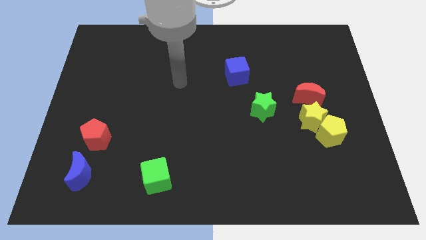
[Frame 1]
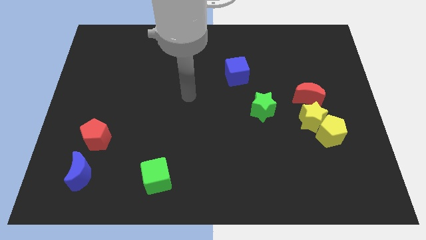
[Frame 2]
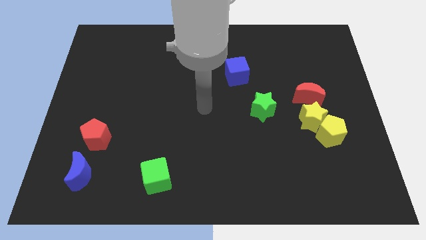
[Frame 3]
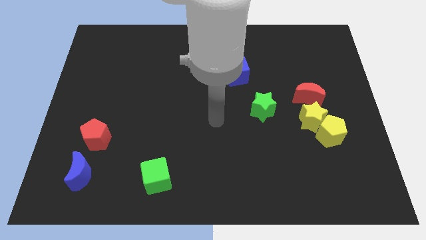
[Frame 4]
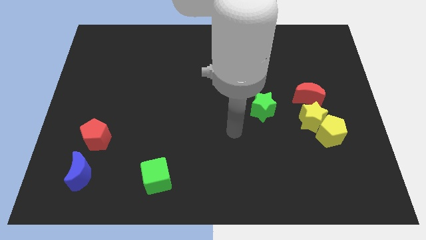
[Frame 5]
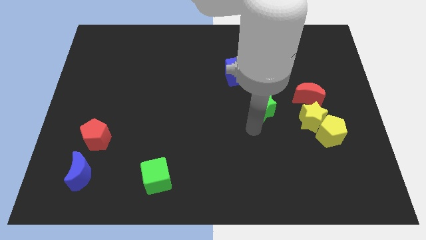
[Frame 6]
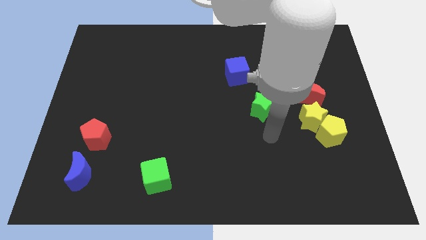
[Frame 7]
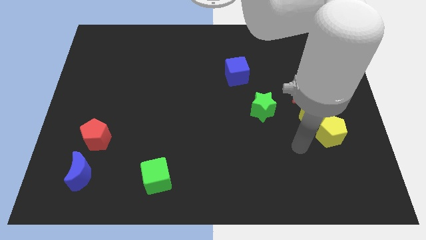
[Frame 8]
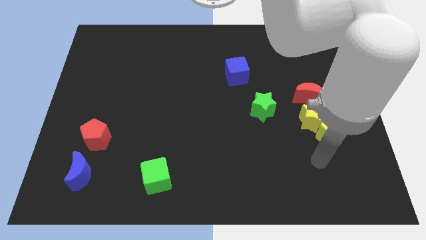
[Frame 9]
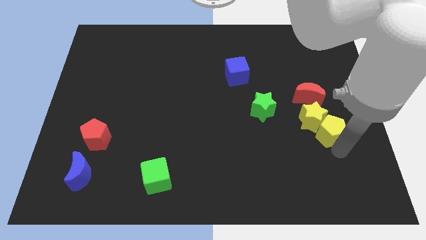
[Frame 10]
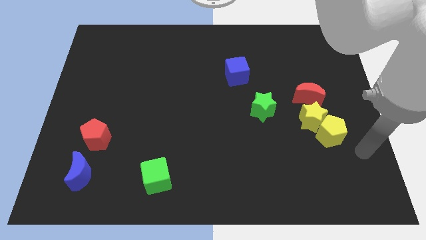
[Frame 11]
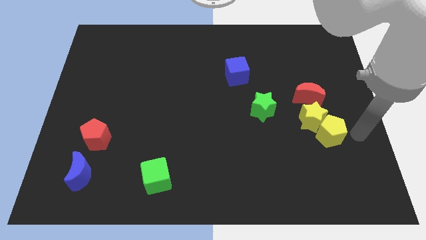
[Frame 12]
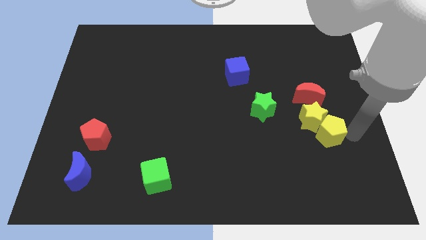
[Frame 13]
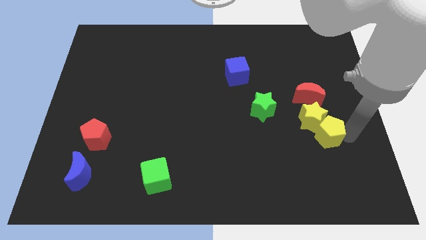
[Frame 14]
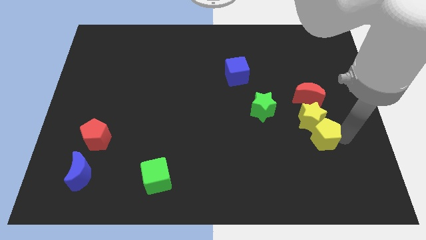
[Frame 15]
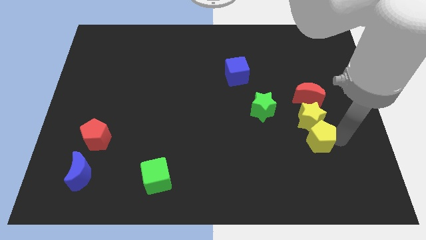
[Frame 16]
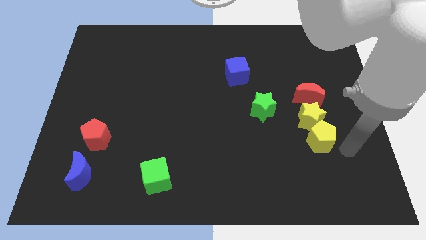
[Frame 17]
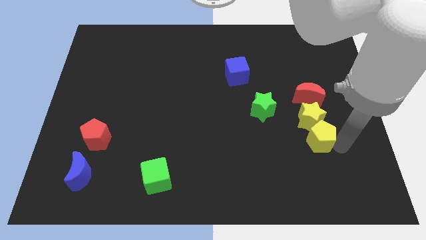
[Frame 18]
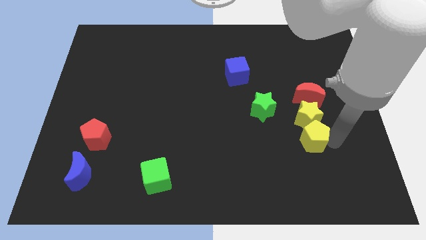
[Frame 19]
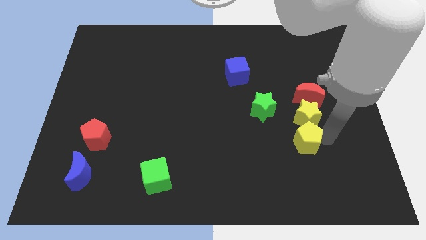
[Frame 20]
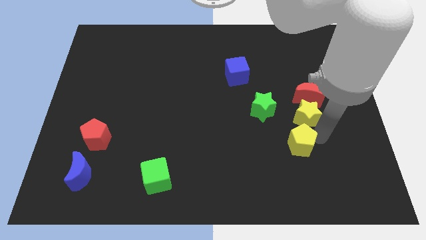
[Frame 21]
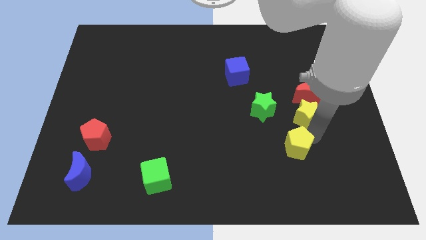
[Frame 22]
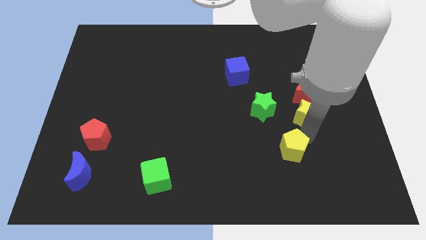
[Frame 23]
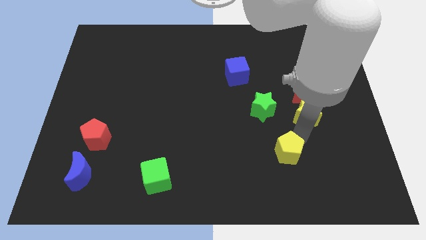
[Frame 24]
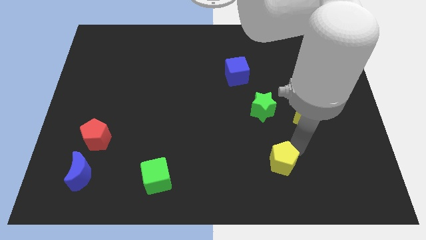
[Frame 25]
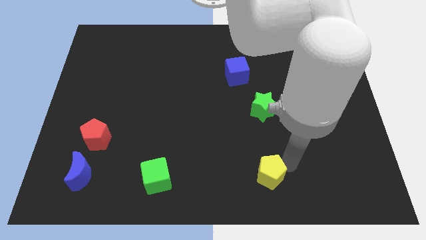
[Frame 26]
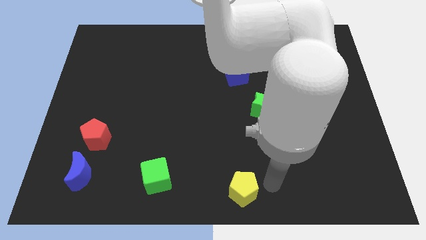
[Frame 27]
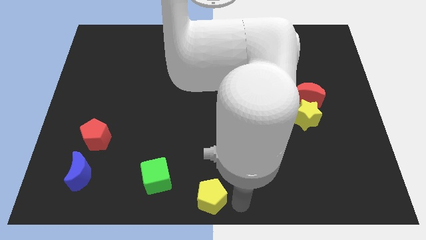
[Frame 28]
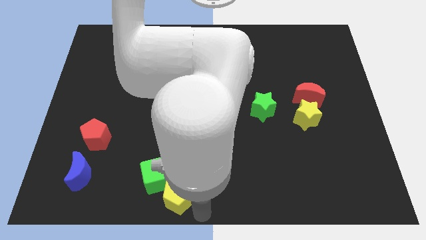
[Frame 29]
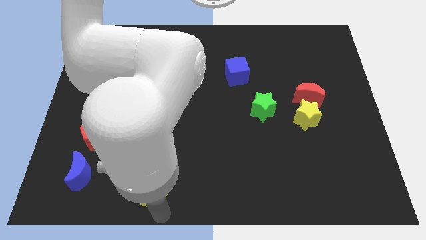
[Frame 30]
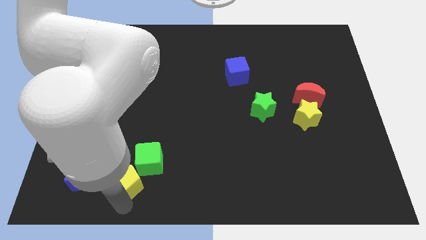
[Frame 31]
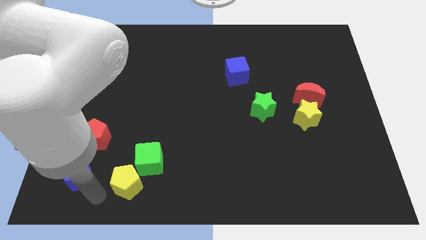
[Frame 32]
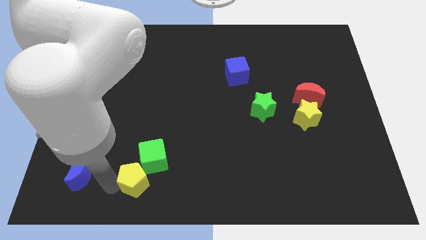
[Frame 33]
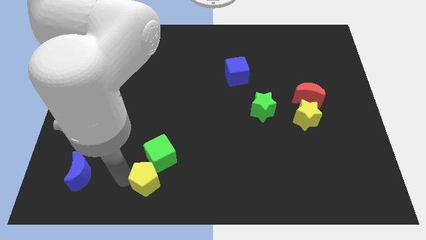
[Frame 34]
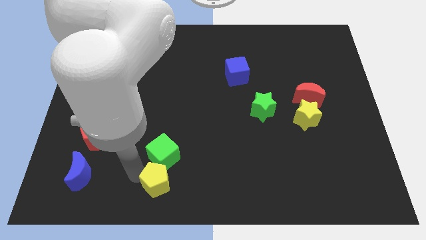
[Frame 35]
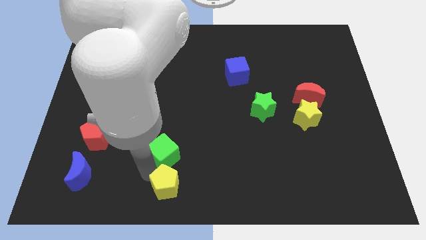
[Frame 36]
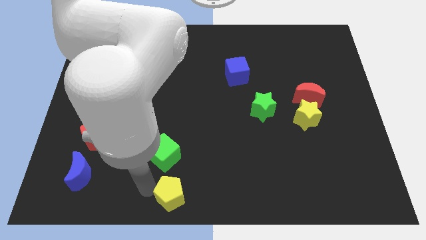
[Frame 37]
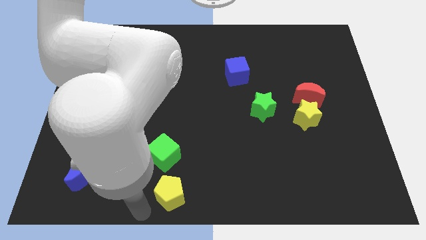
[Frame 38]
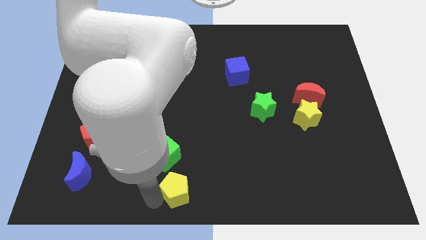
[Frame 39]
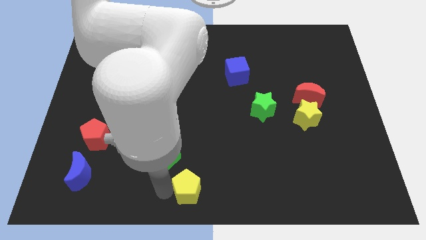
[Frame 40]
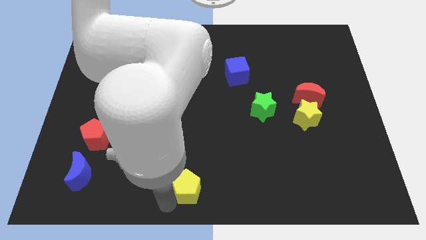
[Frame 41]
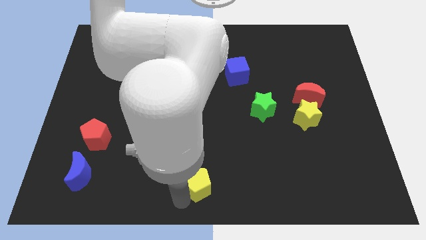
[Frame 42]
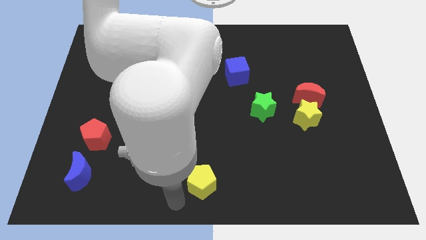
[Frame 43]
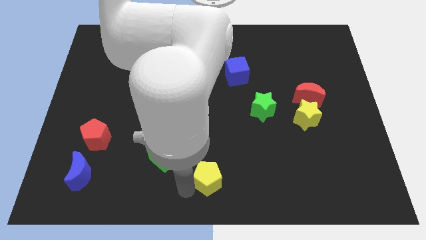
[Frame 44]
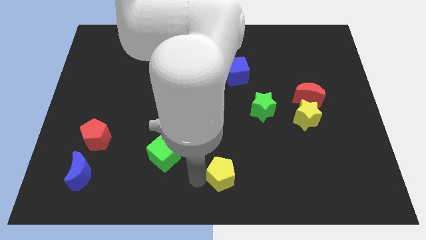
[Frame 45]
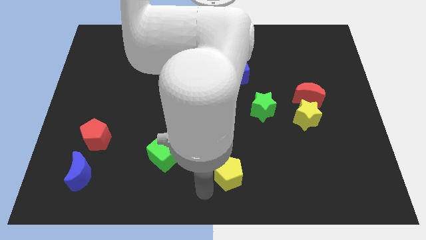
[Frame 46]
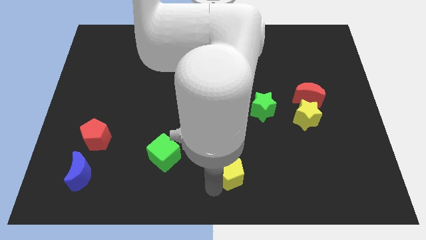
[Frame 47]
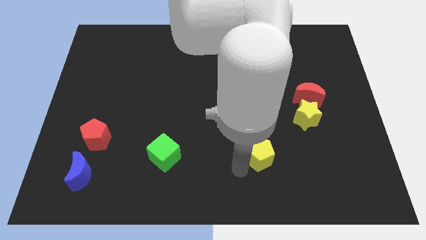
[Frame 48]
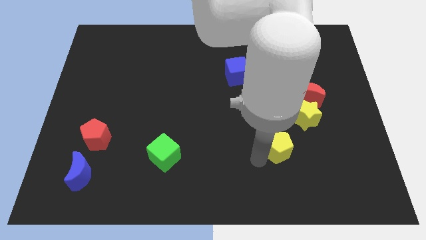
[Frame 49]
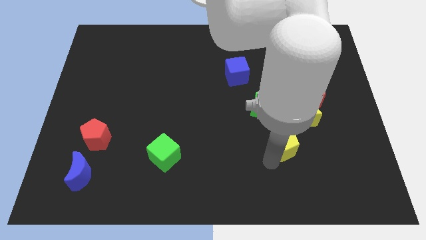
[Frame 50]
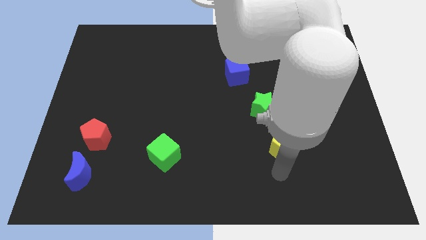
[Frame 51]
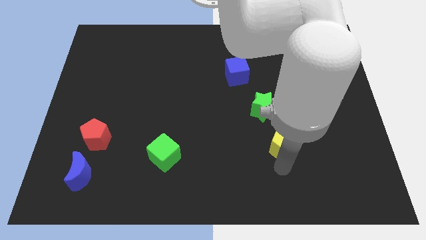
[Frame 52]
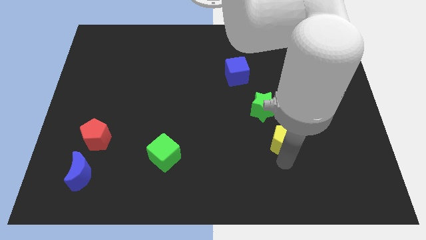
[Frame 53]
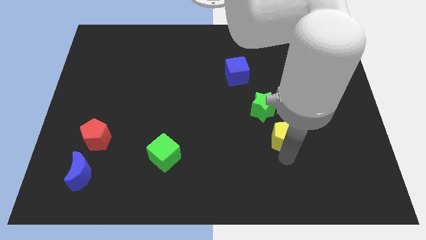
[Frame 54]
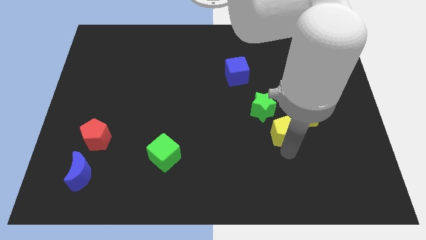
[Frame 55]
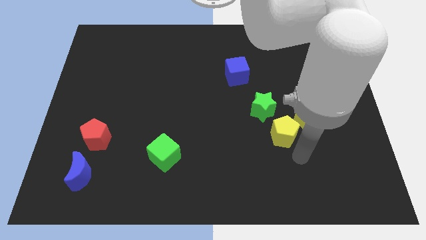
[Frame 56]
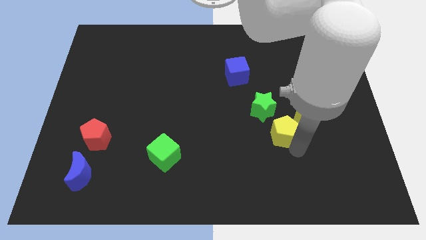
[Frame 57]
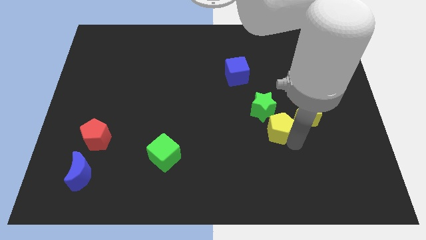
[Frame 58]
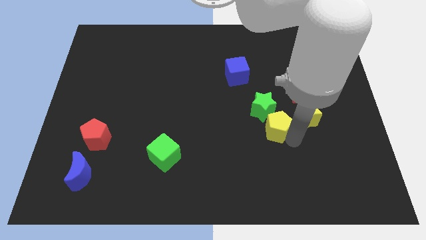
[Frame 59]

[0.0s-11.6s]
move the yellow pentagon to the green star

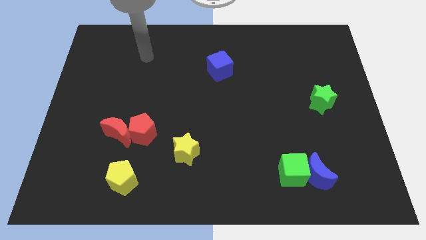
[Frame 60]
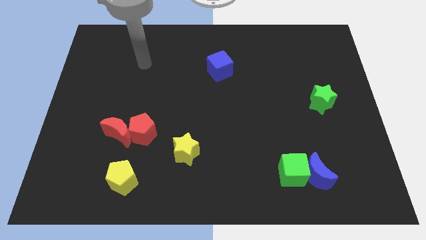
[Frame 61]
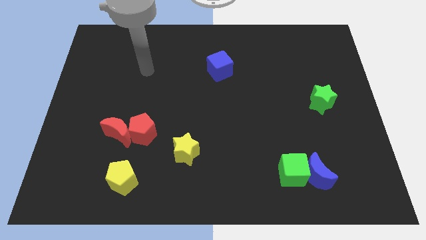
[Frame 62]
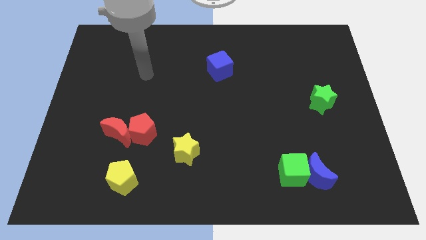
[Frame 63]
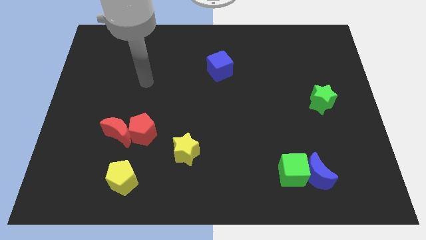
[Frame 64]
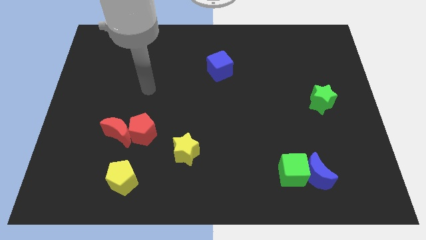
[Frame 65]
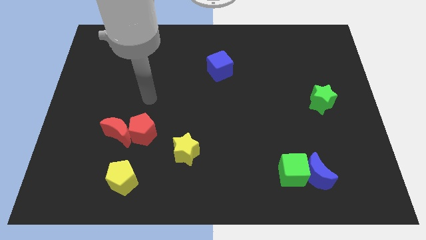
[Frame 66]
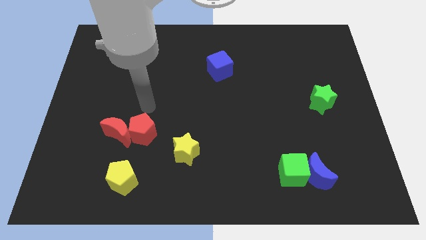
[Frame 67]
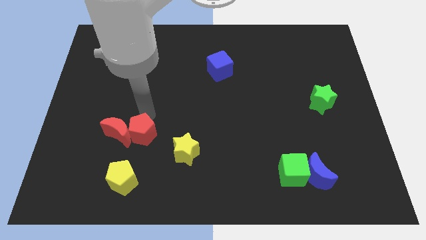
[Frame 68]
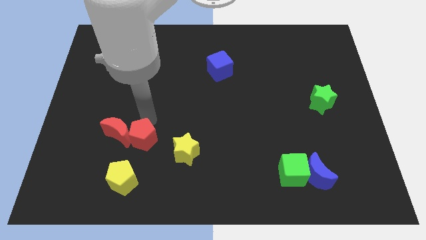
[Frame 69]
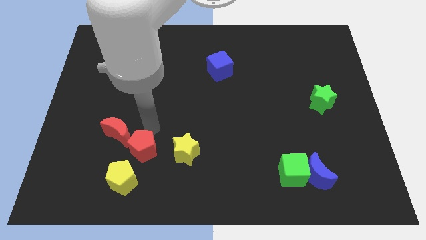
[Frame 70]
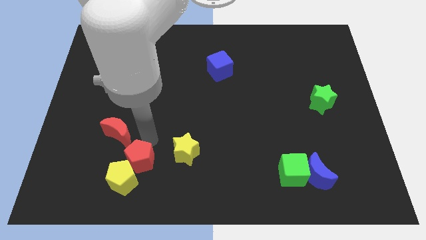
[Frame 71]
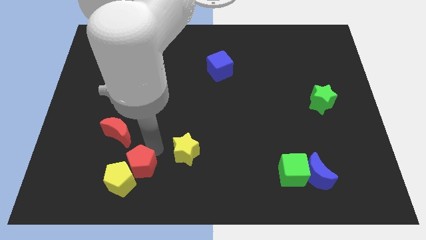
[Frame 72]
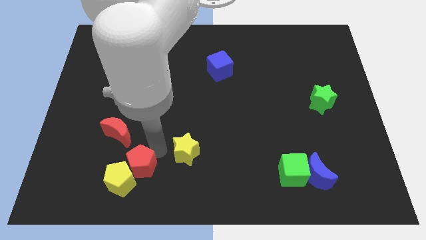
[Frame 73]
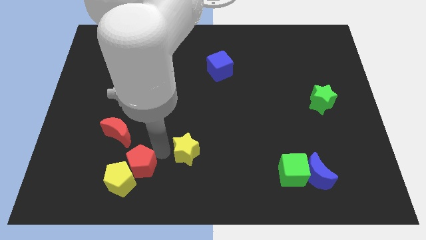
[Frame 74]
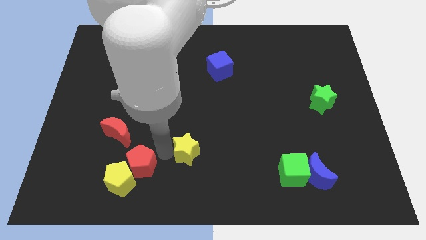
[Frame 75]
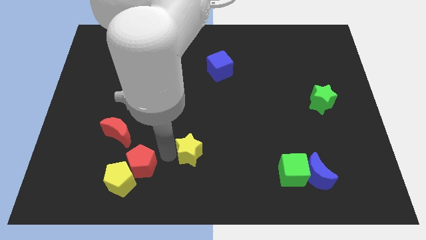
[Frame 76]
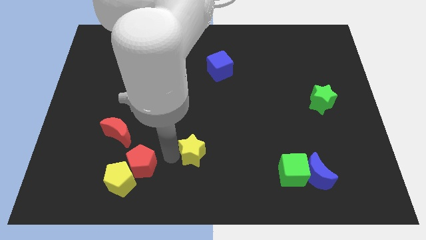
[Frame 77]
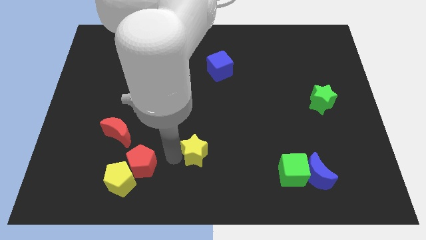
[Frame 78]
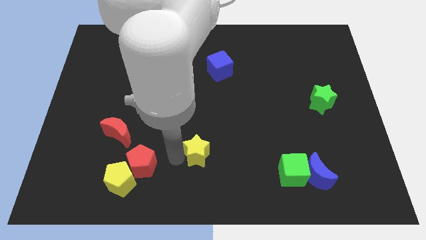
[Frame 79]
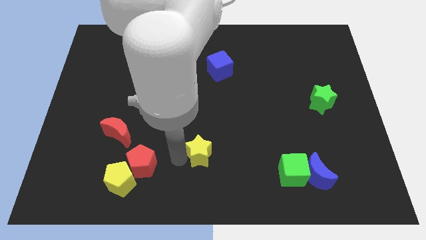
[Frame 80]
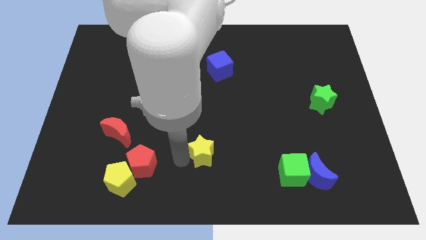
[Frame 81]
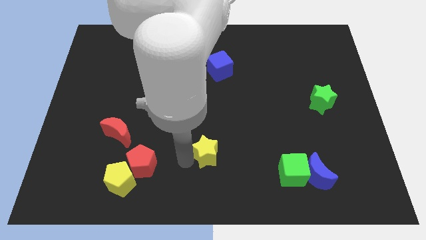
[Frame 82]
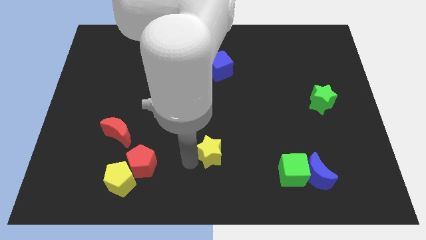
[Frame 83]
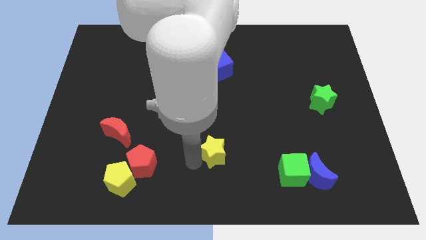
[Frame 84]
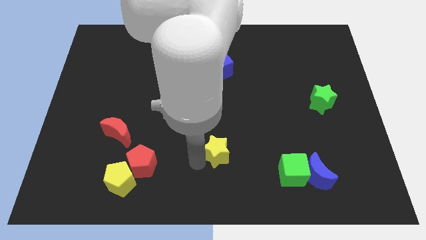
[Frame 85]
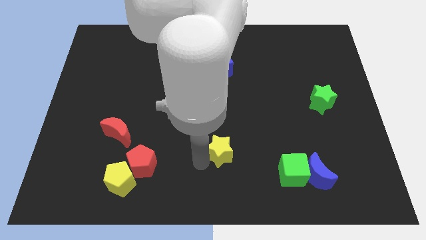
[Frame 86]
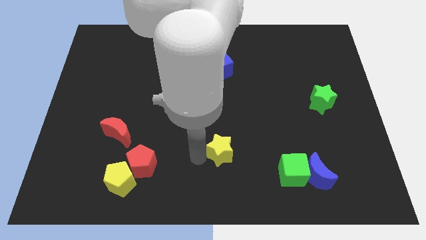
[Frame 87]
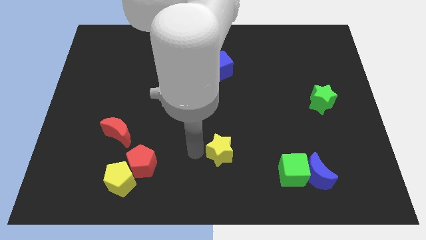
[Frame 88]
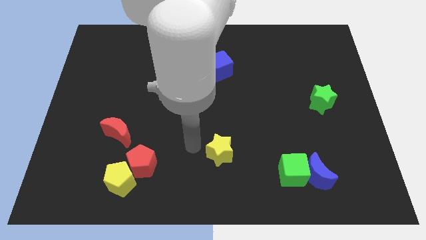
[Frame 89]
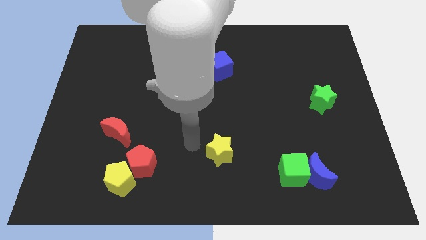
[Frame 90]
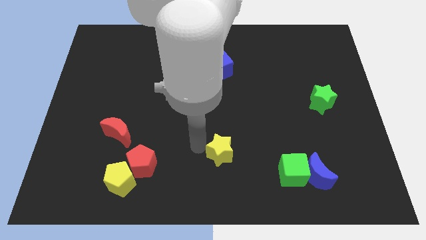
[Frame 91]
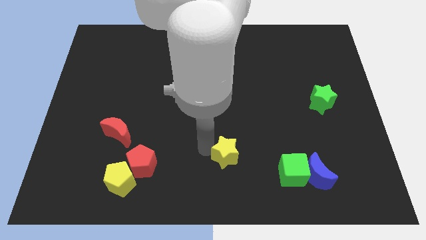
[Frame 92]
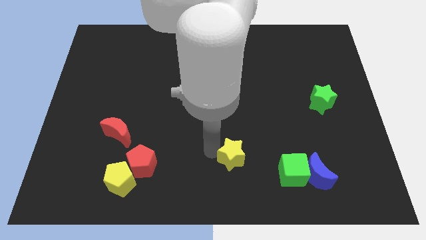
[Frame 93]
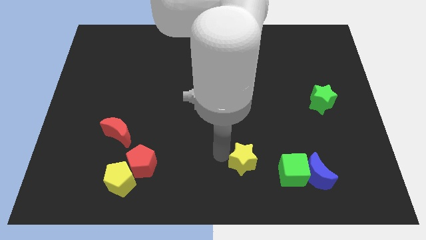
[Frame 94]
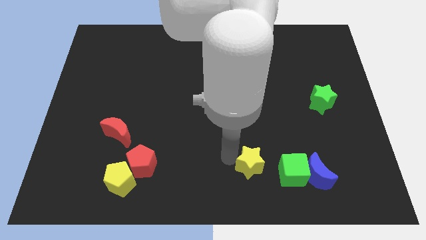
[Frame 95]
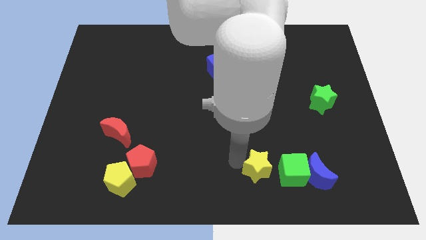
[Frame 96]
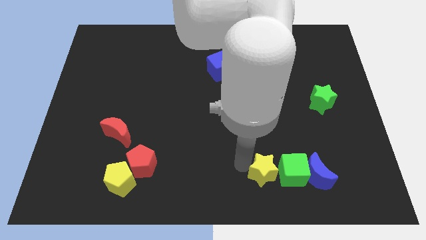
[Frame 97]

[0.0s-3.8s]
move the yellow star close to the green cube
